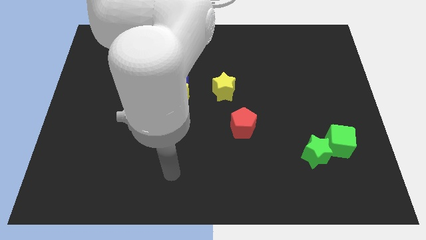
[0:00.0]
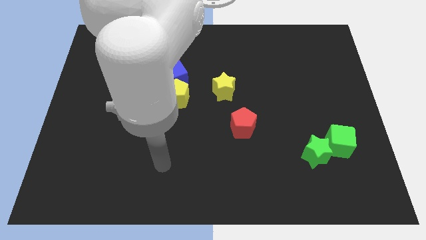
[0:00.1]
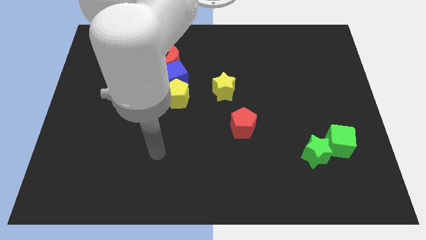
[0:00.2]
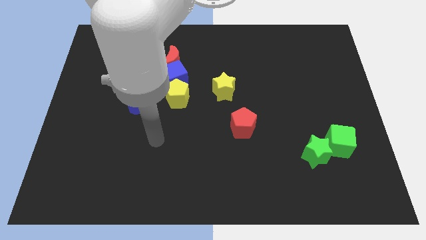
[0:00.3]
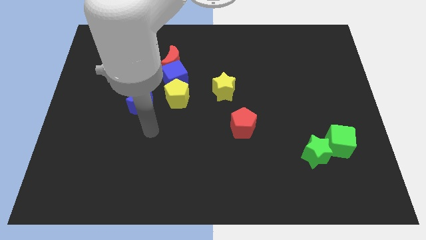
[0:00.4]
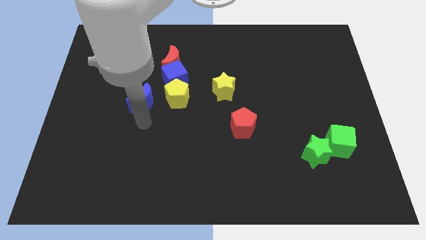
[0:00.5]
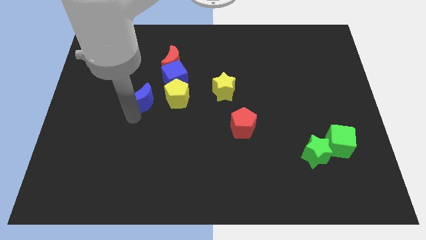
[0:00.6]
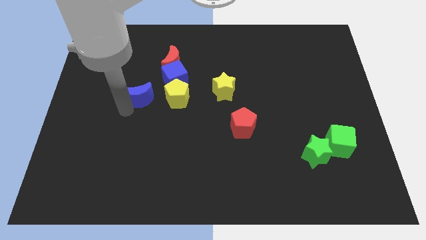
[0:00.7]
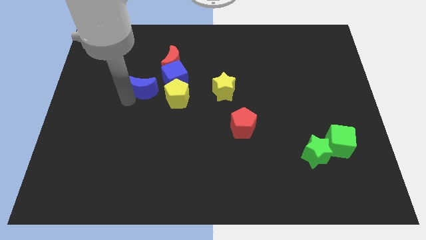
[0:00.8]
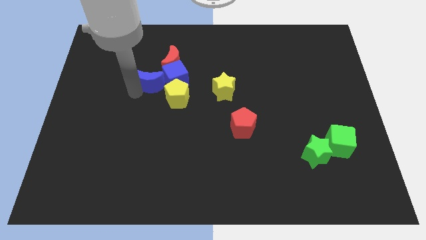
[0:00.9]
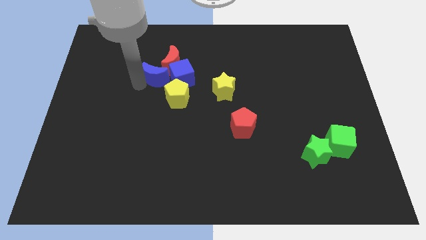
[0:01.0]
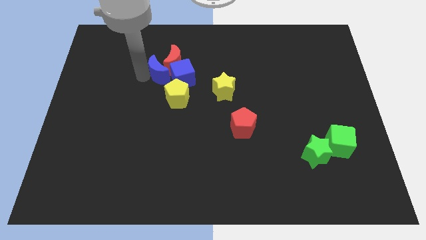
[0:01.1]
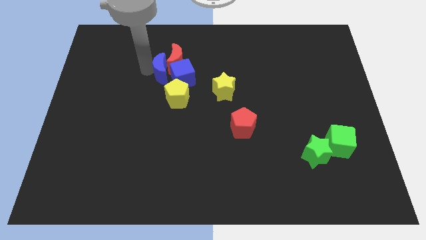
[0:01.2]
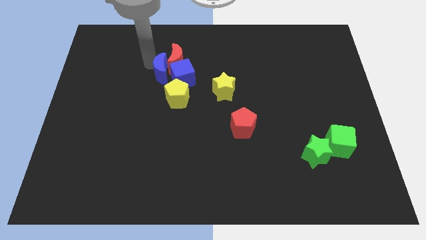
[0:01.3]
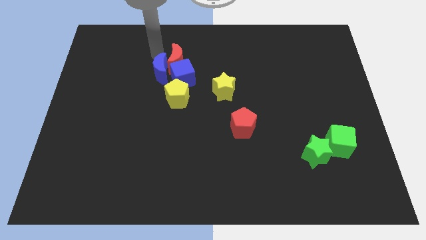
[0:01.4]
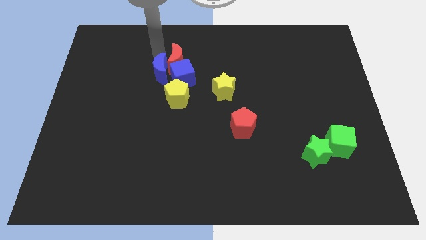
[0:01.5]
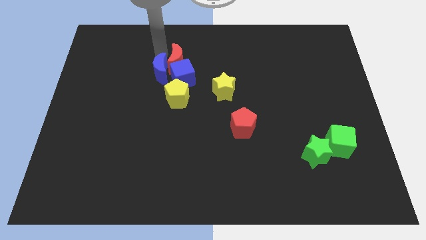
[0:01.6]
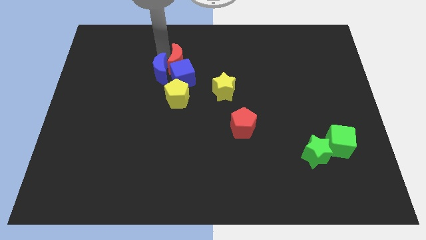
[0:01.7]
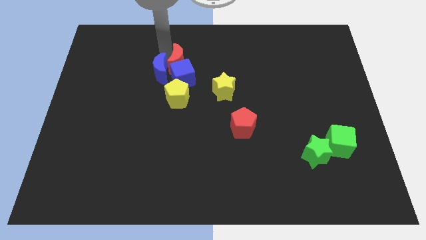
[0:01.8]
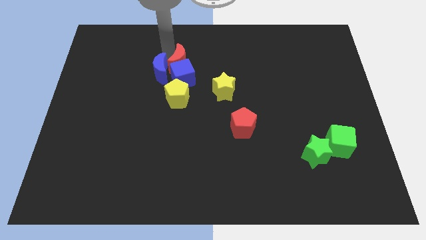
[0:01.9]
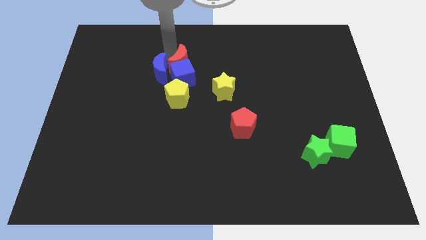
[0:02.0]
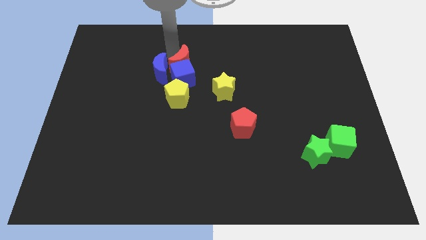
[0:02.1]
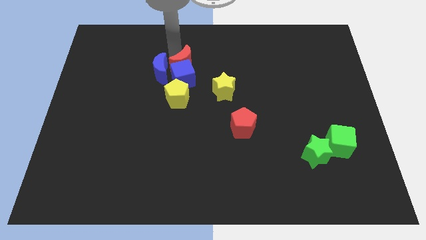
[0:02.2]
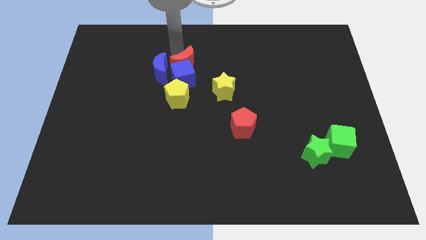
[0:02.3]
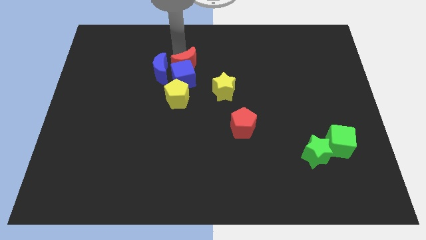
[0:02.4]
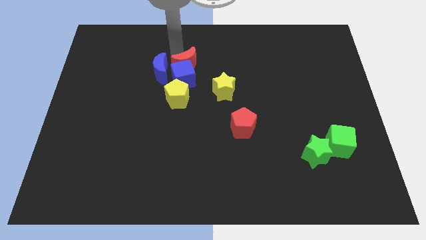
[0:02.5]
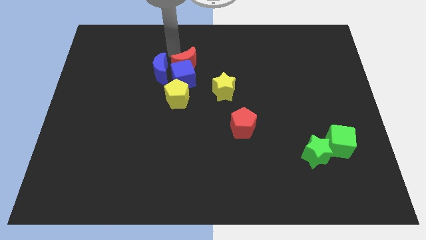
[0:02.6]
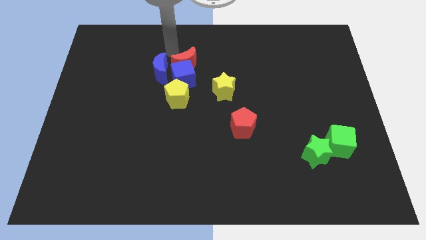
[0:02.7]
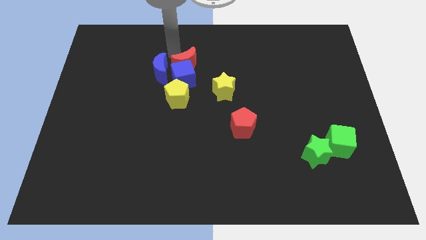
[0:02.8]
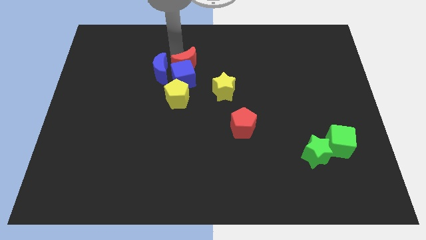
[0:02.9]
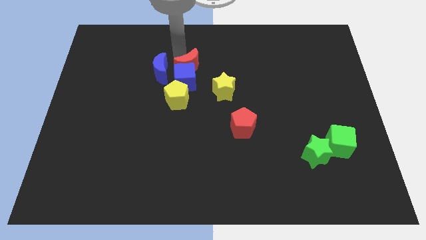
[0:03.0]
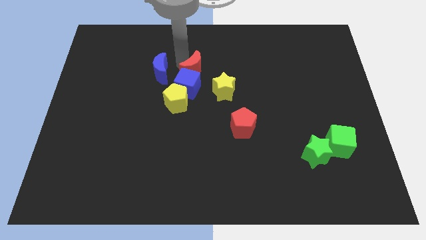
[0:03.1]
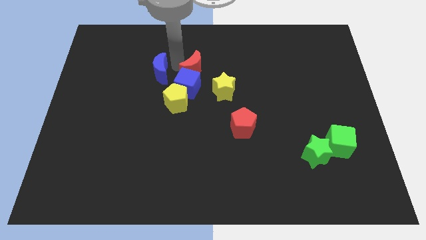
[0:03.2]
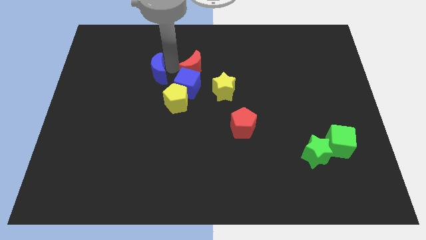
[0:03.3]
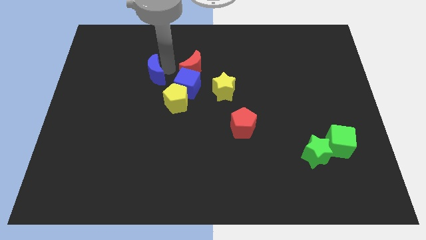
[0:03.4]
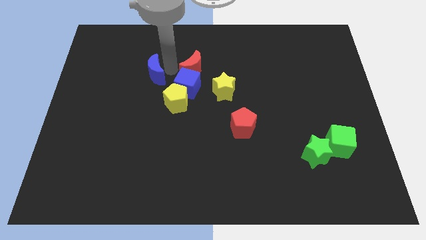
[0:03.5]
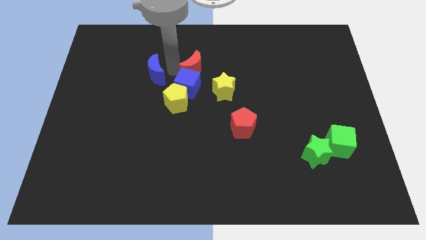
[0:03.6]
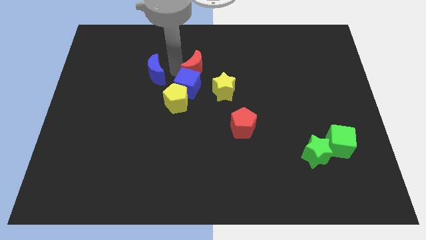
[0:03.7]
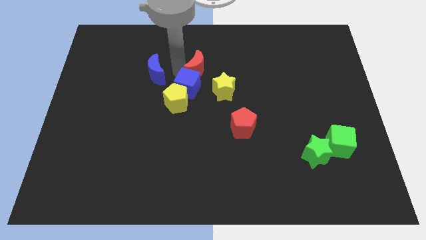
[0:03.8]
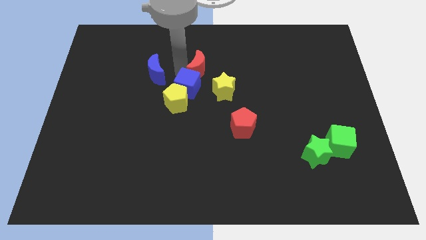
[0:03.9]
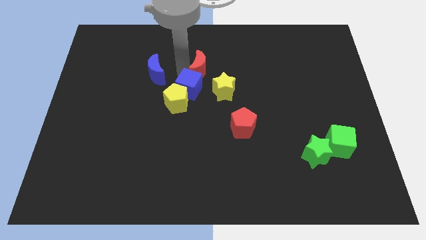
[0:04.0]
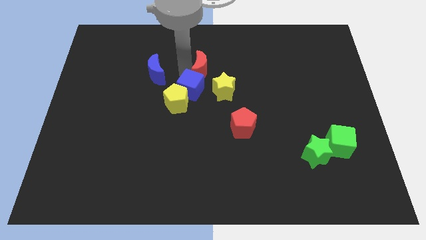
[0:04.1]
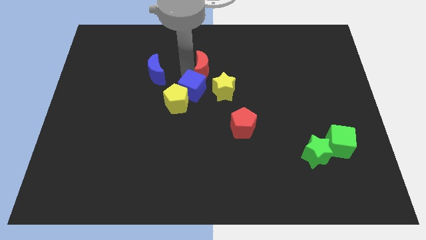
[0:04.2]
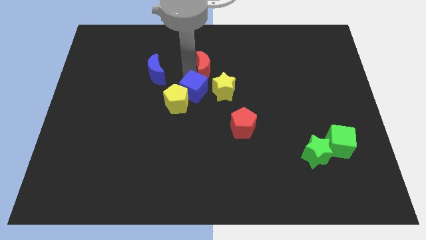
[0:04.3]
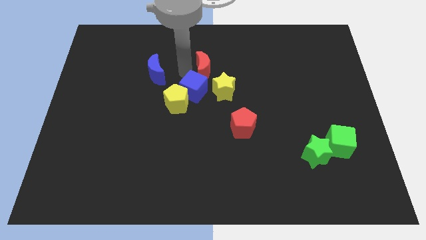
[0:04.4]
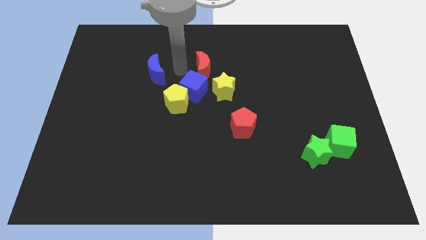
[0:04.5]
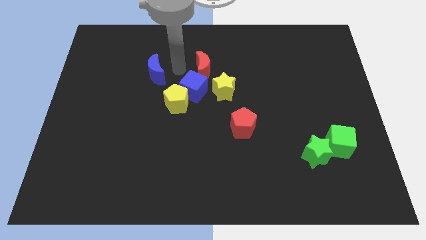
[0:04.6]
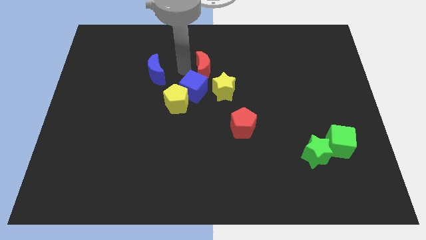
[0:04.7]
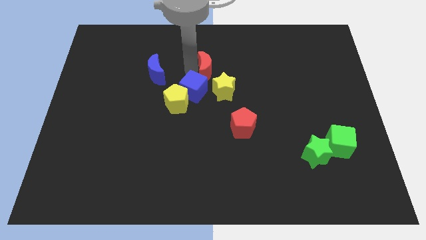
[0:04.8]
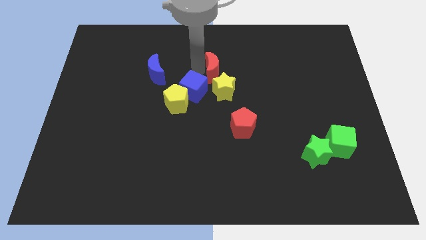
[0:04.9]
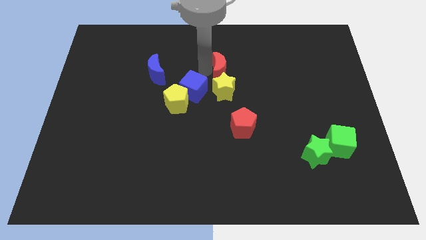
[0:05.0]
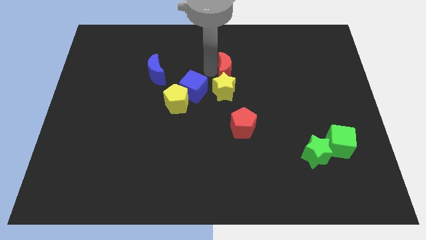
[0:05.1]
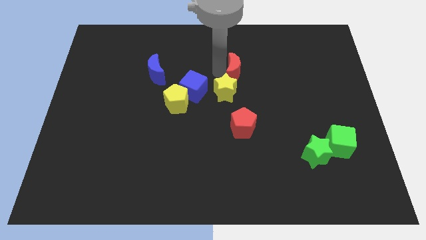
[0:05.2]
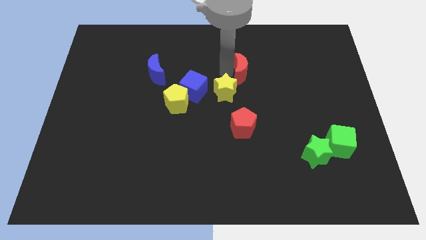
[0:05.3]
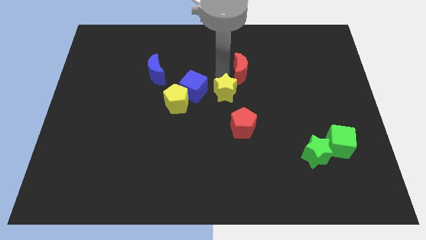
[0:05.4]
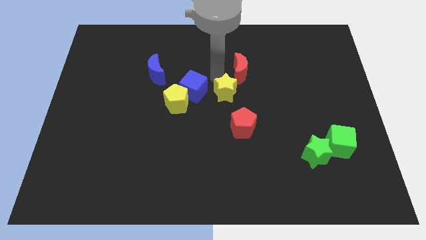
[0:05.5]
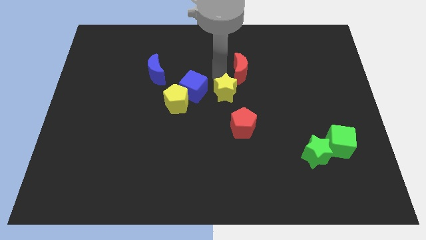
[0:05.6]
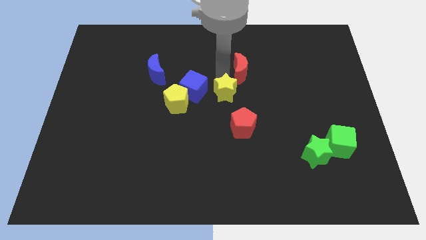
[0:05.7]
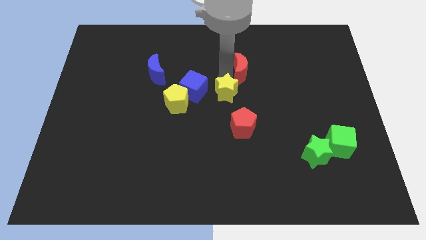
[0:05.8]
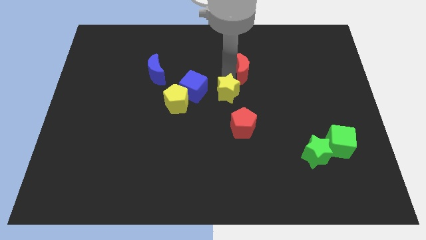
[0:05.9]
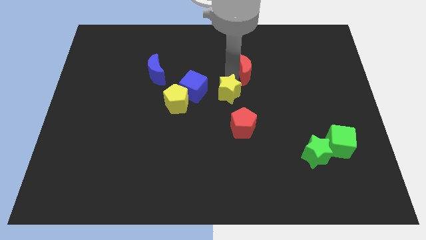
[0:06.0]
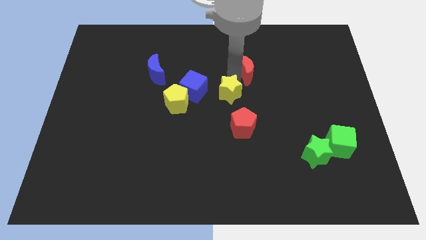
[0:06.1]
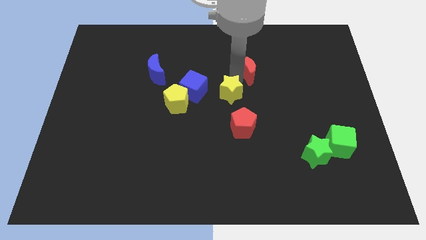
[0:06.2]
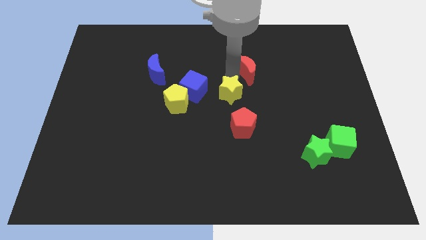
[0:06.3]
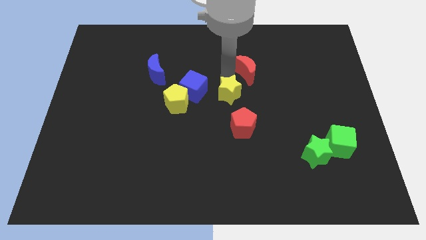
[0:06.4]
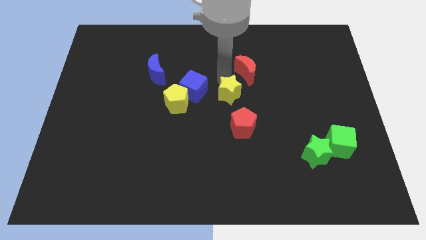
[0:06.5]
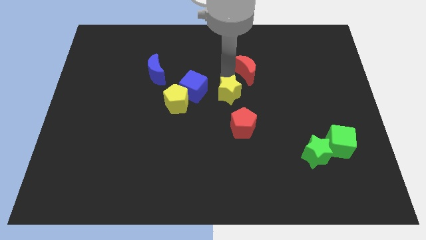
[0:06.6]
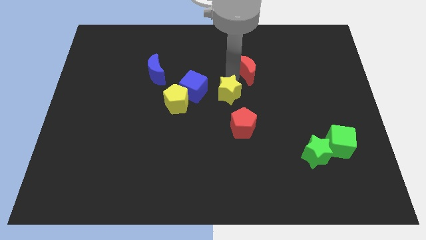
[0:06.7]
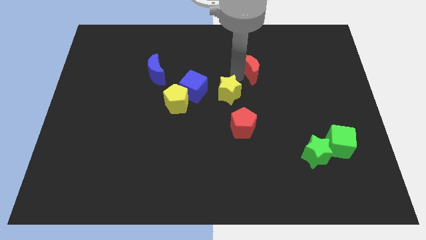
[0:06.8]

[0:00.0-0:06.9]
push the red moon right

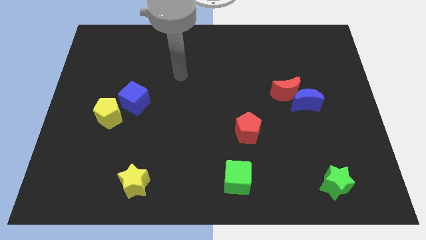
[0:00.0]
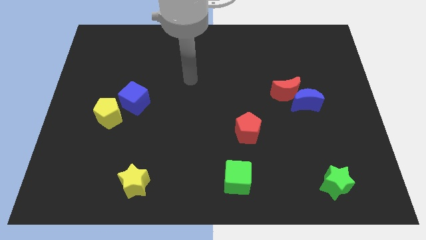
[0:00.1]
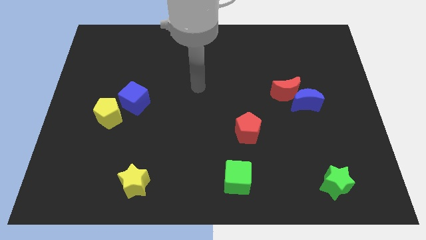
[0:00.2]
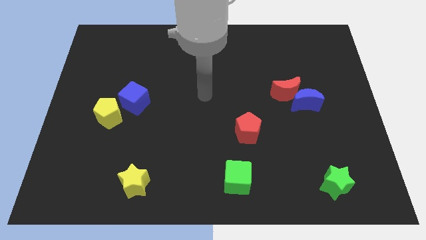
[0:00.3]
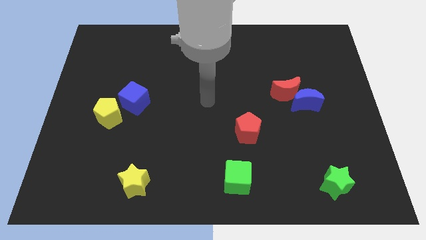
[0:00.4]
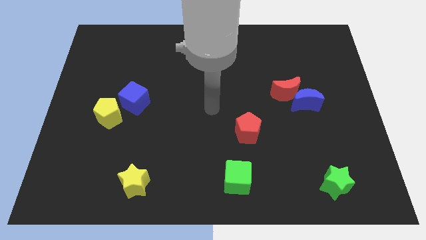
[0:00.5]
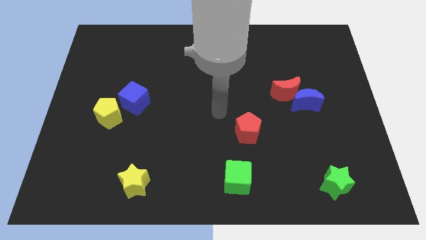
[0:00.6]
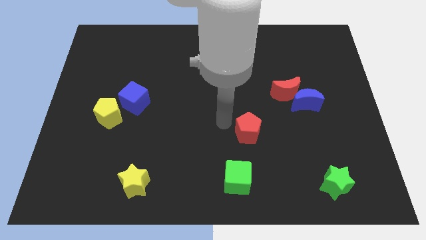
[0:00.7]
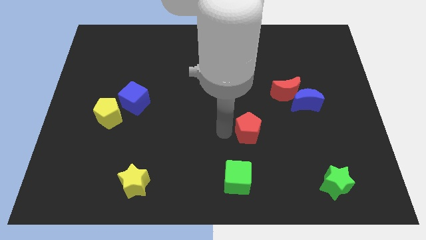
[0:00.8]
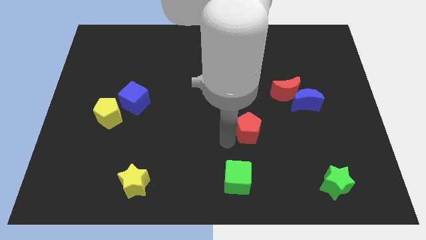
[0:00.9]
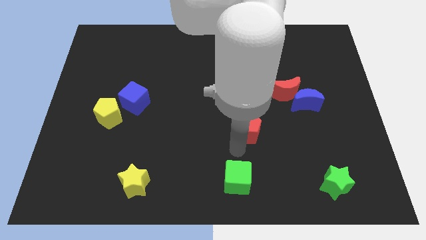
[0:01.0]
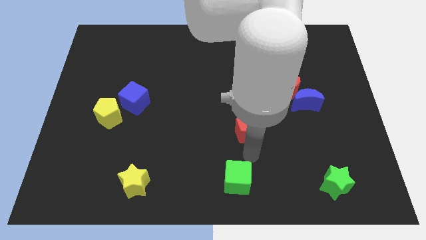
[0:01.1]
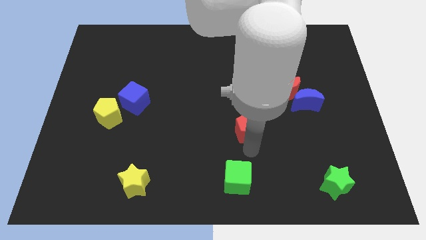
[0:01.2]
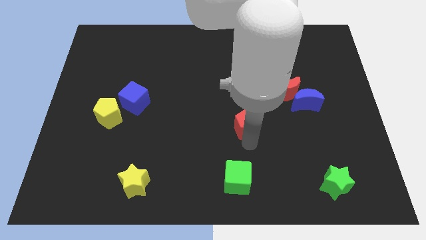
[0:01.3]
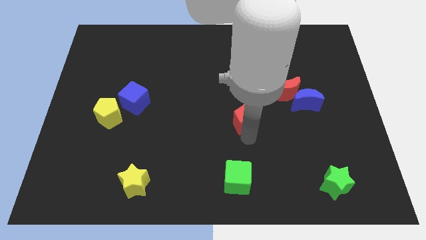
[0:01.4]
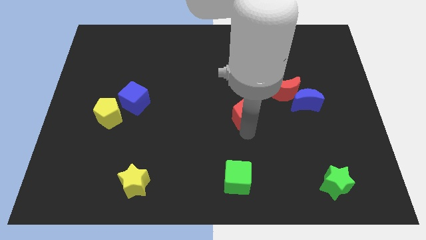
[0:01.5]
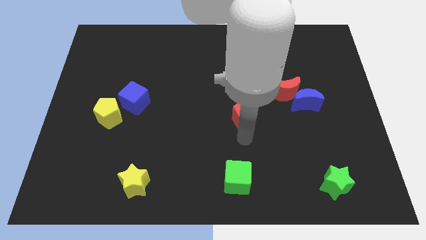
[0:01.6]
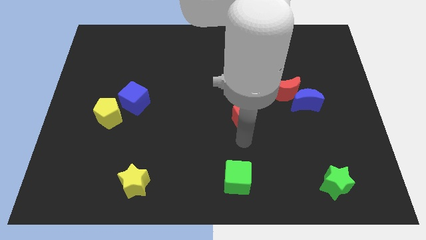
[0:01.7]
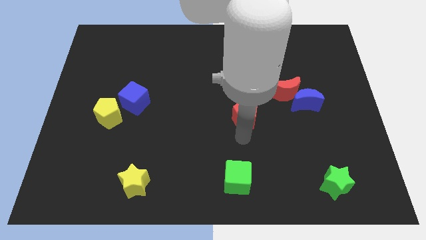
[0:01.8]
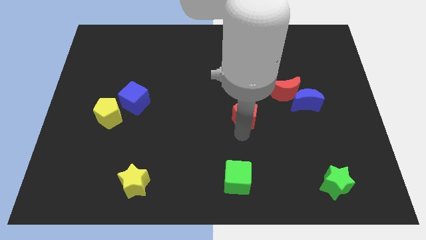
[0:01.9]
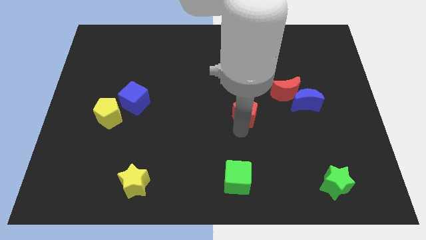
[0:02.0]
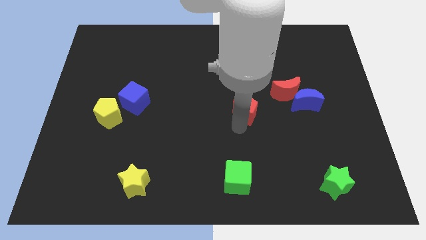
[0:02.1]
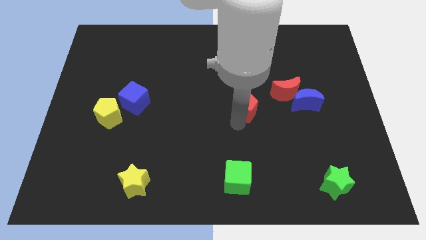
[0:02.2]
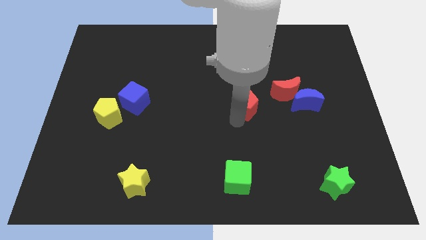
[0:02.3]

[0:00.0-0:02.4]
push the red pentagon a bit up
